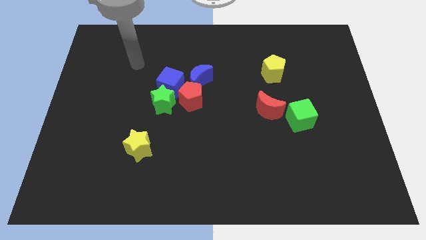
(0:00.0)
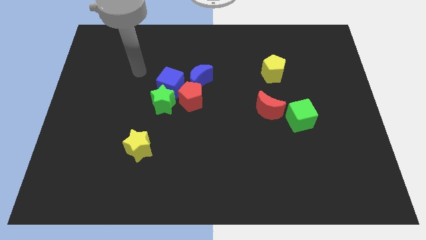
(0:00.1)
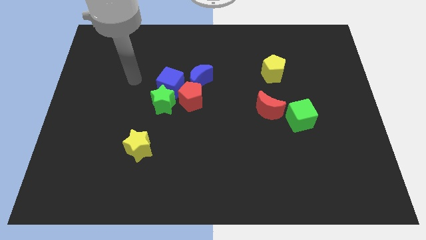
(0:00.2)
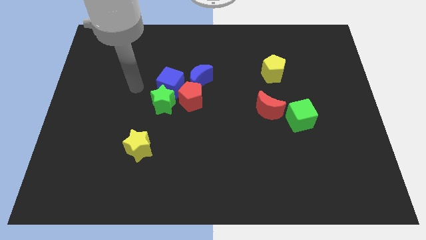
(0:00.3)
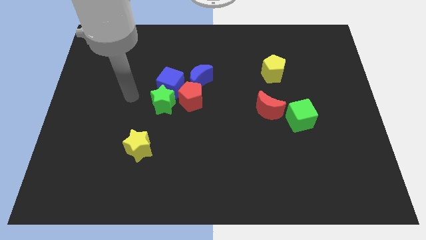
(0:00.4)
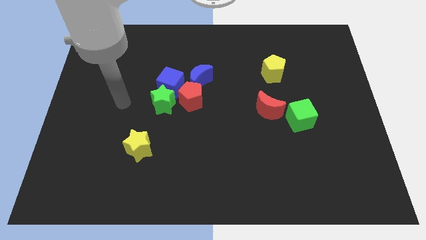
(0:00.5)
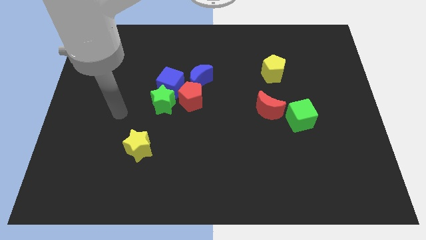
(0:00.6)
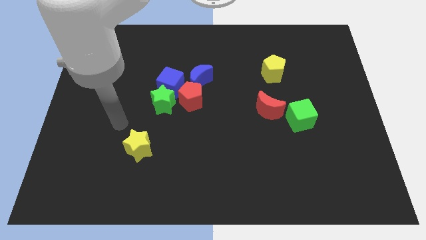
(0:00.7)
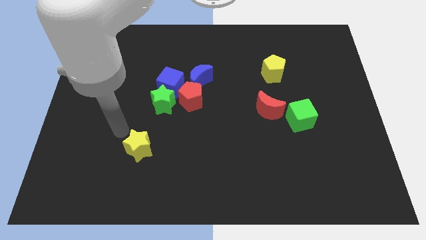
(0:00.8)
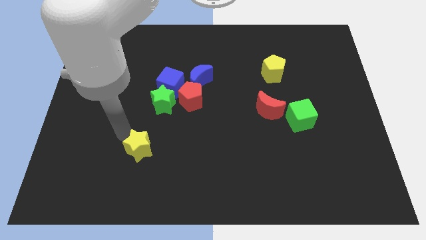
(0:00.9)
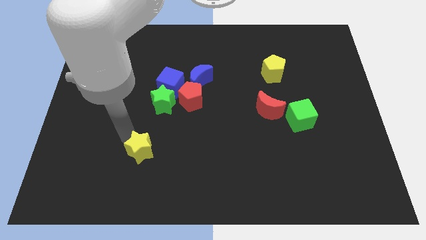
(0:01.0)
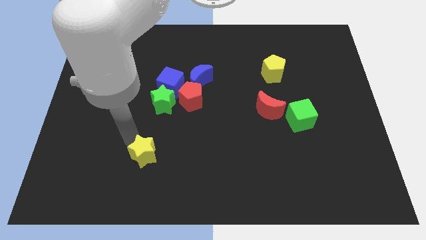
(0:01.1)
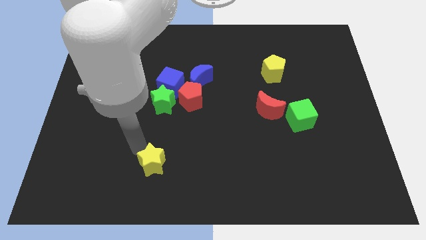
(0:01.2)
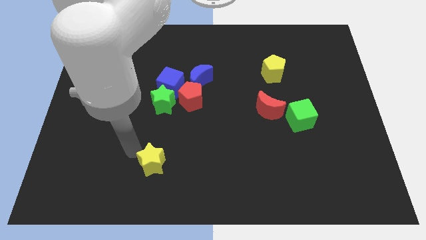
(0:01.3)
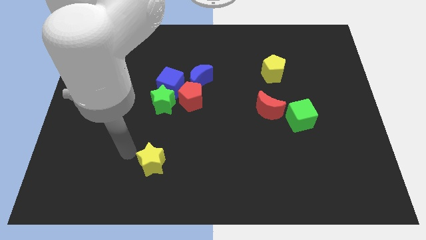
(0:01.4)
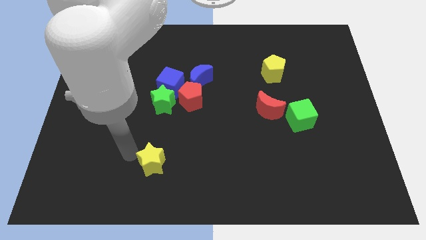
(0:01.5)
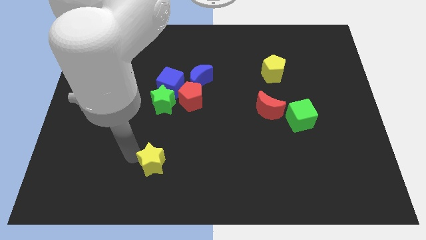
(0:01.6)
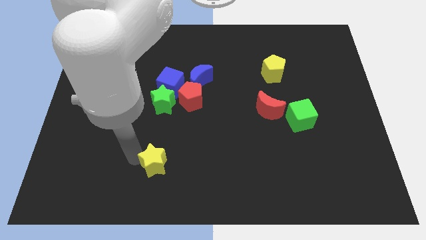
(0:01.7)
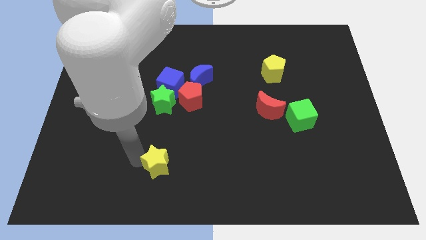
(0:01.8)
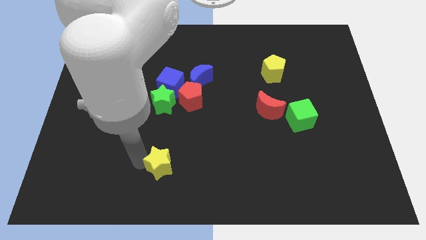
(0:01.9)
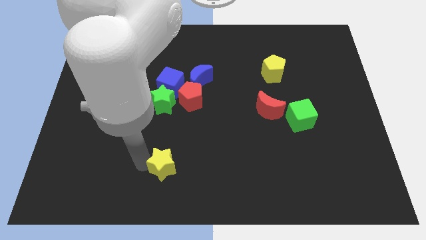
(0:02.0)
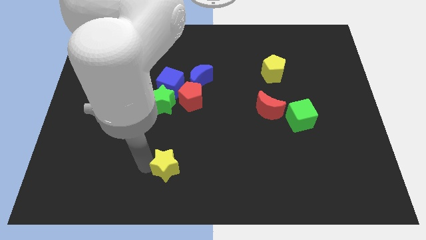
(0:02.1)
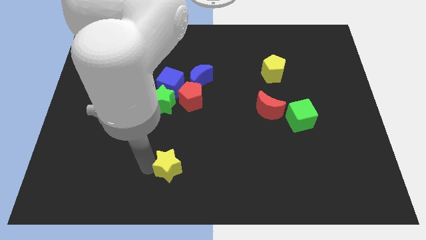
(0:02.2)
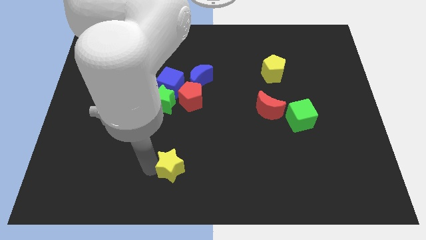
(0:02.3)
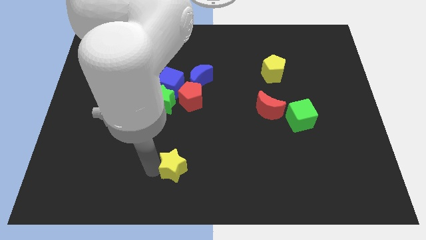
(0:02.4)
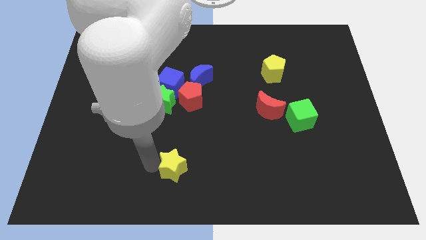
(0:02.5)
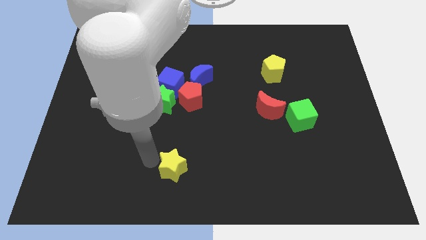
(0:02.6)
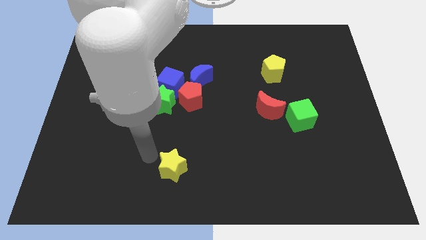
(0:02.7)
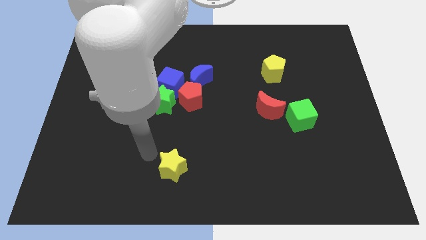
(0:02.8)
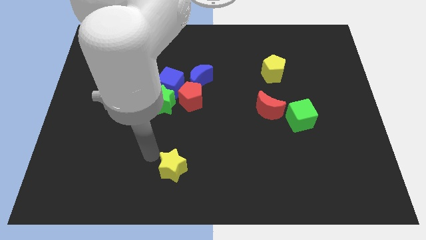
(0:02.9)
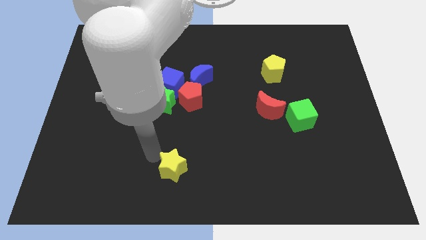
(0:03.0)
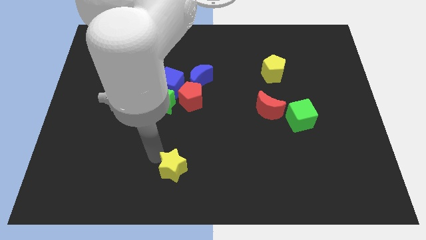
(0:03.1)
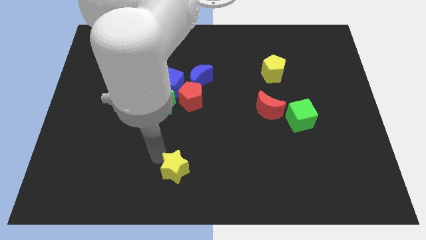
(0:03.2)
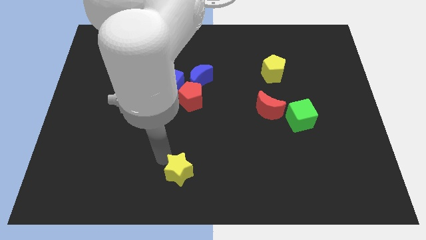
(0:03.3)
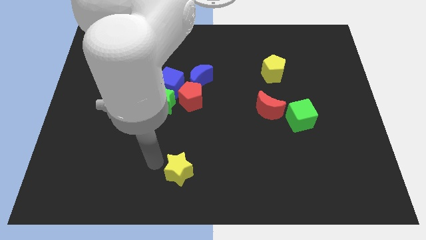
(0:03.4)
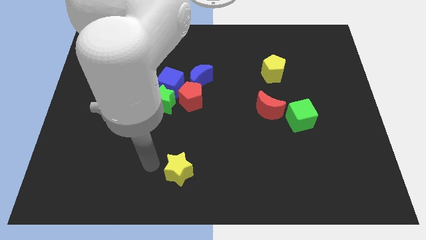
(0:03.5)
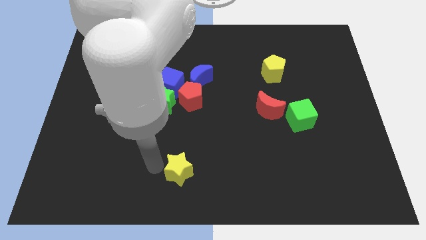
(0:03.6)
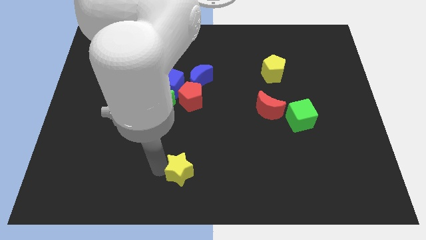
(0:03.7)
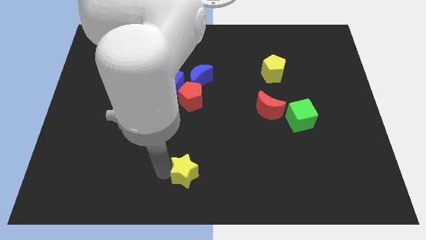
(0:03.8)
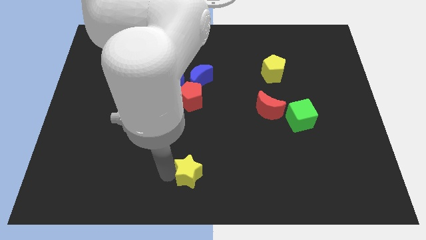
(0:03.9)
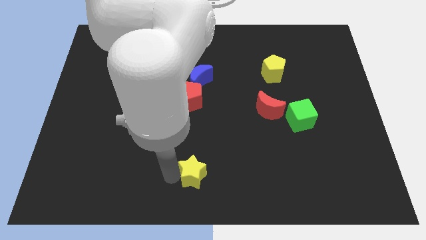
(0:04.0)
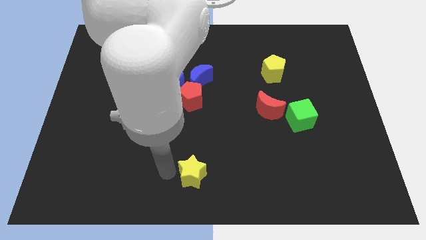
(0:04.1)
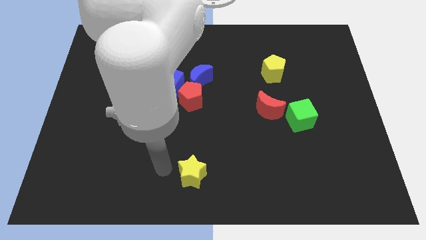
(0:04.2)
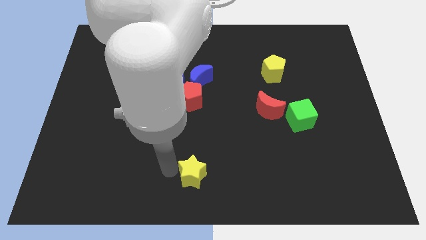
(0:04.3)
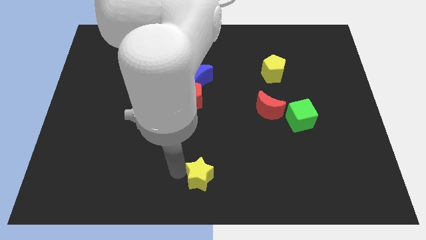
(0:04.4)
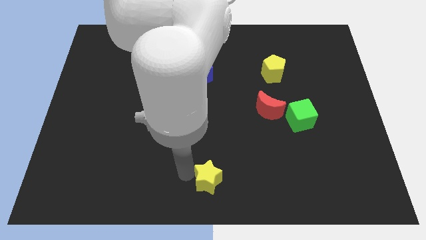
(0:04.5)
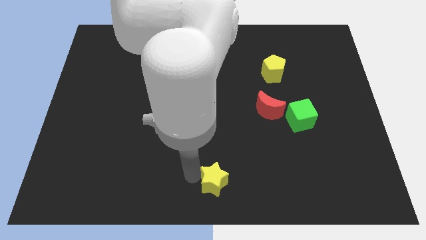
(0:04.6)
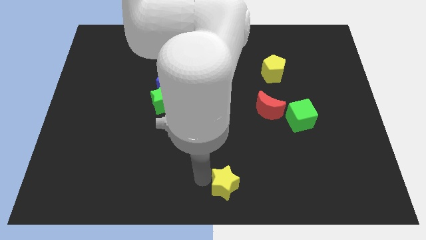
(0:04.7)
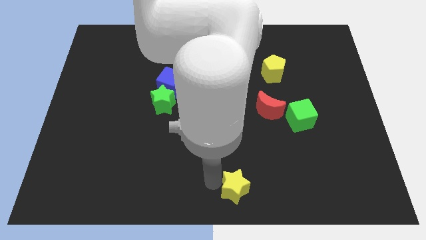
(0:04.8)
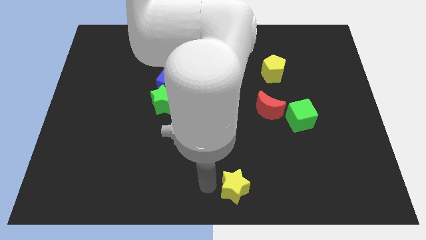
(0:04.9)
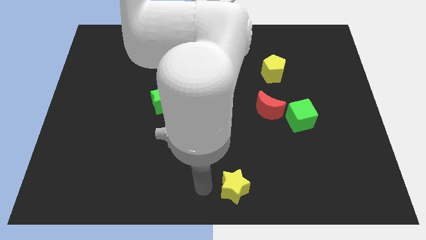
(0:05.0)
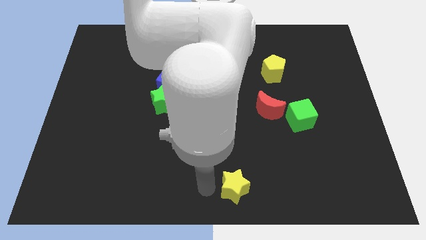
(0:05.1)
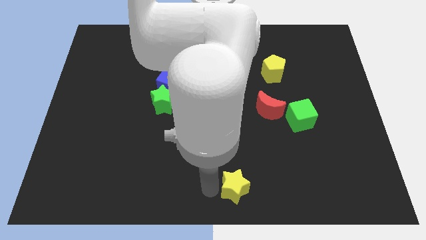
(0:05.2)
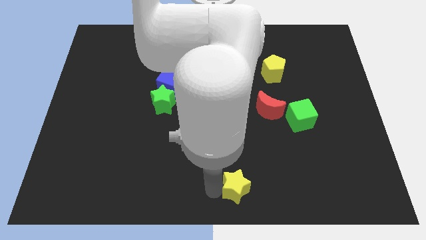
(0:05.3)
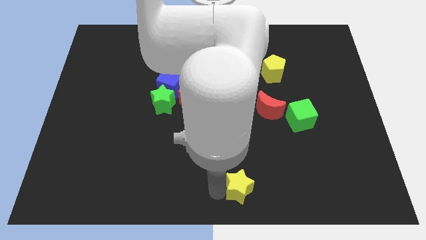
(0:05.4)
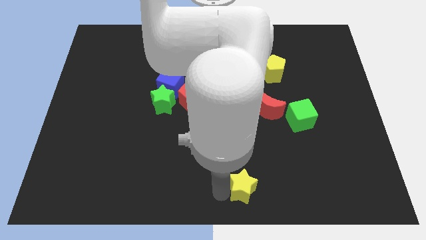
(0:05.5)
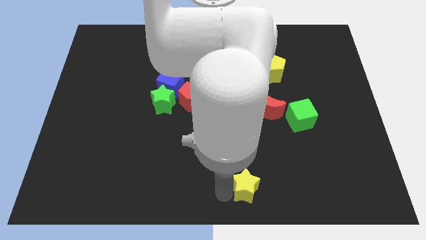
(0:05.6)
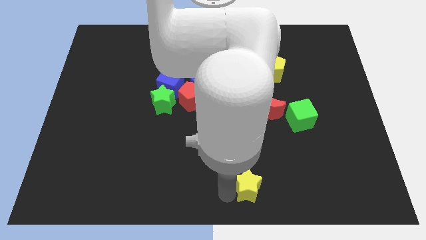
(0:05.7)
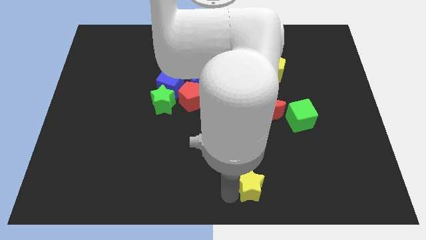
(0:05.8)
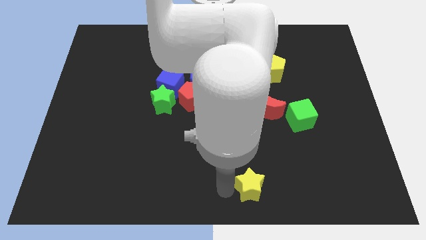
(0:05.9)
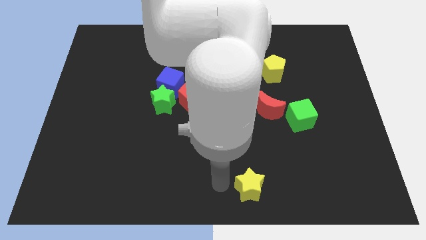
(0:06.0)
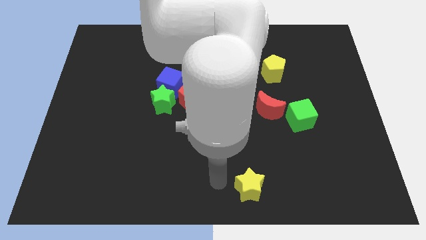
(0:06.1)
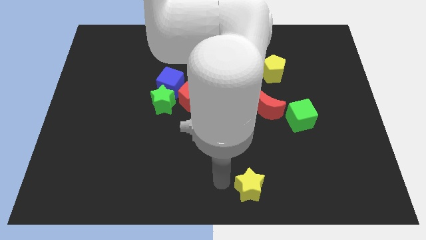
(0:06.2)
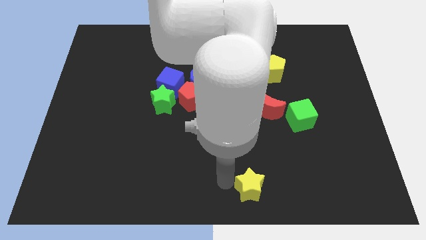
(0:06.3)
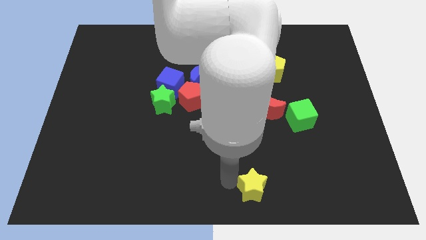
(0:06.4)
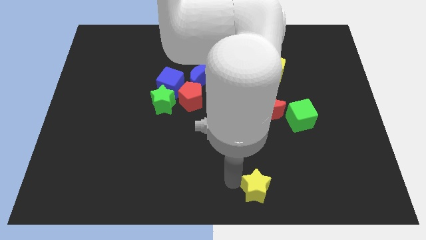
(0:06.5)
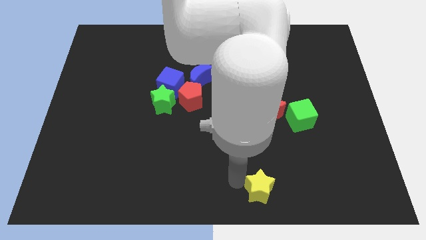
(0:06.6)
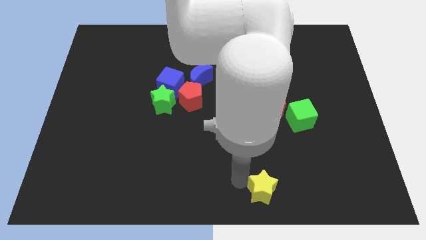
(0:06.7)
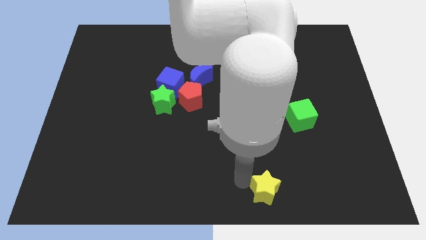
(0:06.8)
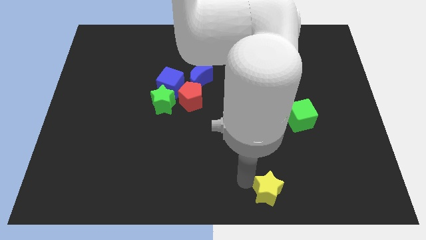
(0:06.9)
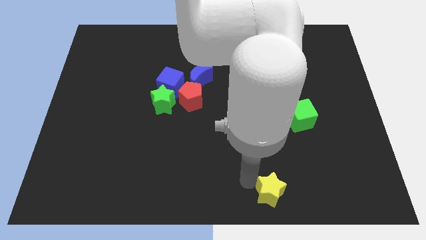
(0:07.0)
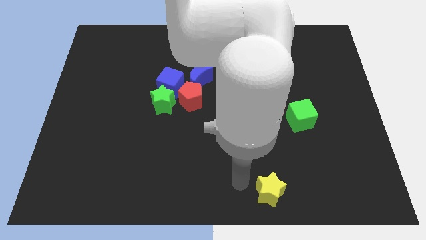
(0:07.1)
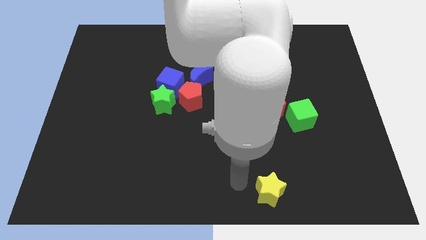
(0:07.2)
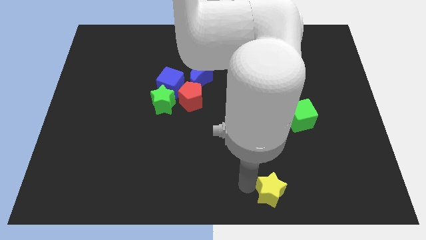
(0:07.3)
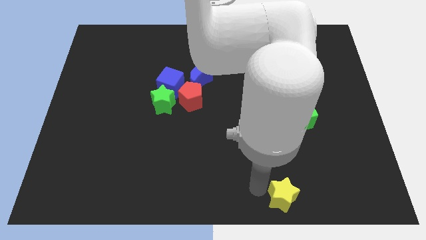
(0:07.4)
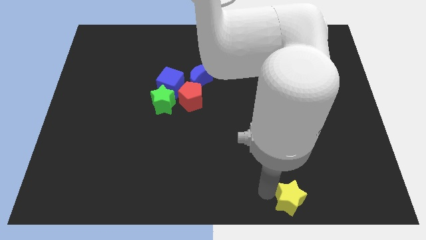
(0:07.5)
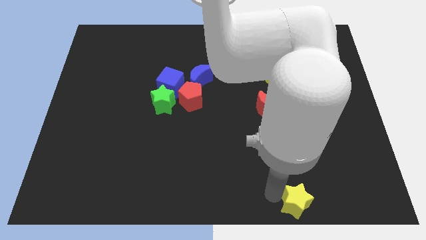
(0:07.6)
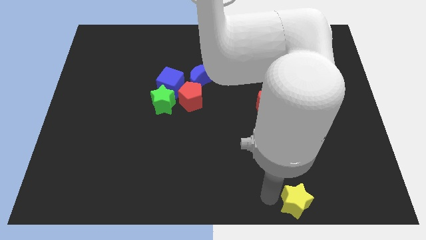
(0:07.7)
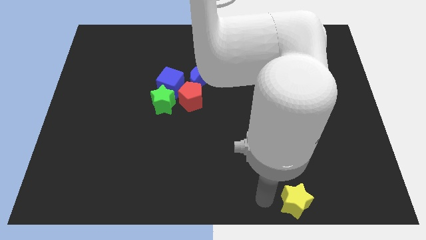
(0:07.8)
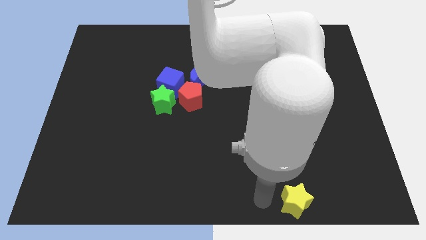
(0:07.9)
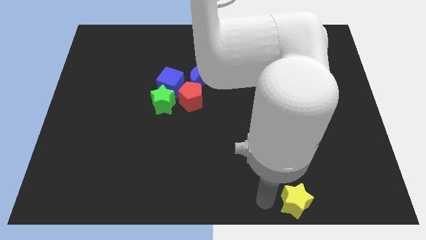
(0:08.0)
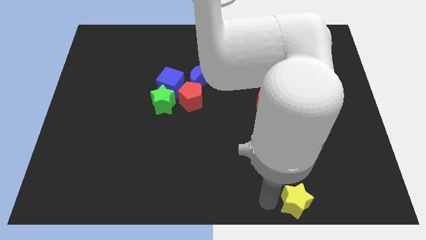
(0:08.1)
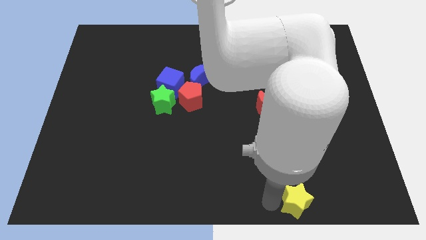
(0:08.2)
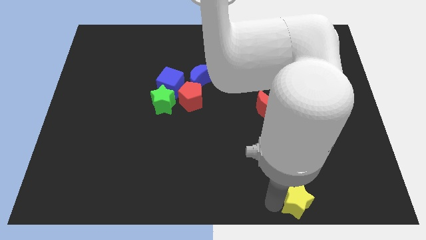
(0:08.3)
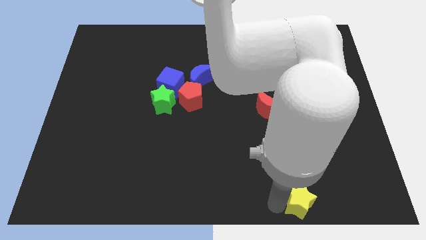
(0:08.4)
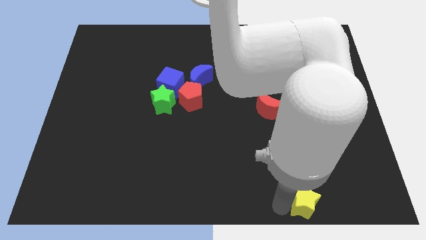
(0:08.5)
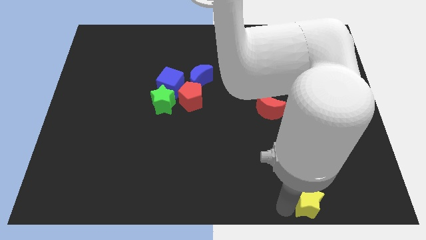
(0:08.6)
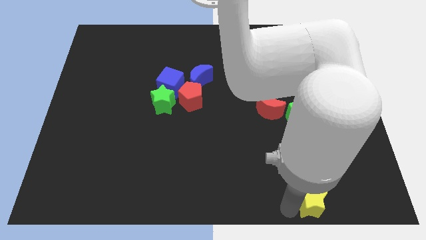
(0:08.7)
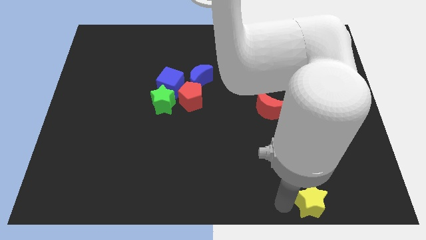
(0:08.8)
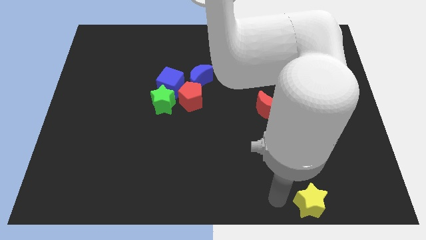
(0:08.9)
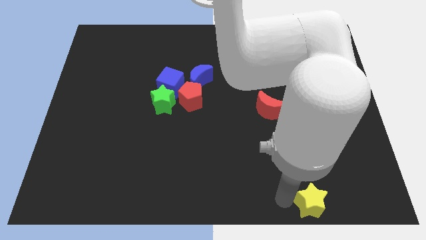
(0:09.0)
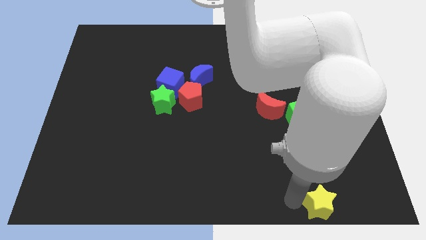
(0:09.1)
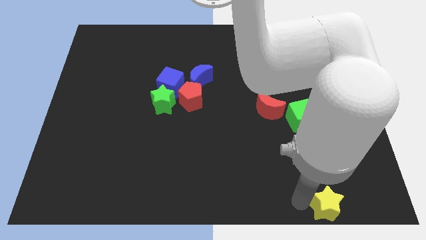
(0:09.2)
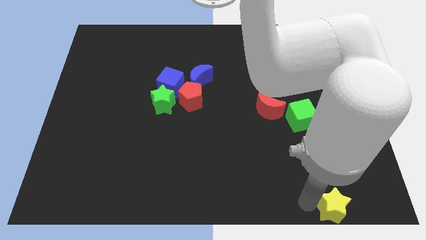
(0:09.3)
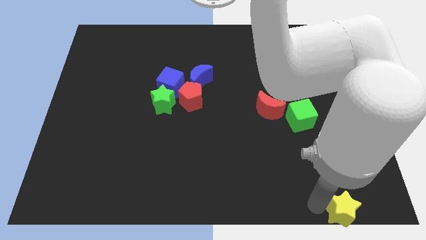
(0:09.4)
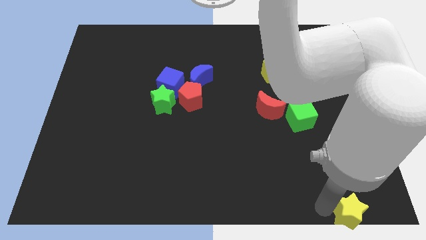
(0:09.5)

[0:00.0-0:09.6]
push the yellow star to the bottom right
